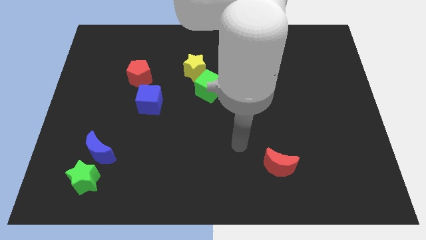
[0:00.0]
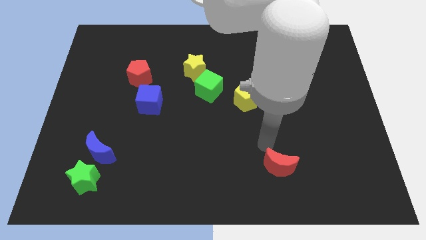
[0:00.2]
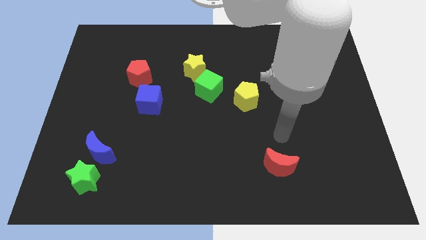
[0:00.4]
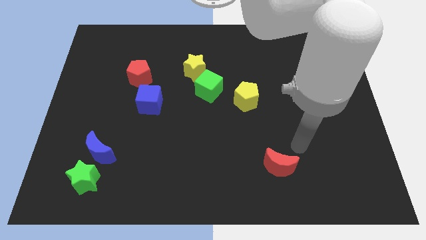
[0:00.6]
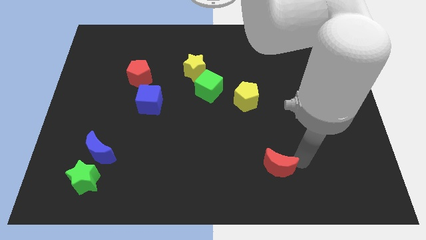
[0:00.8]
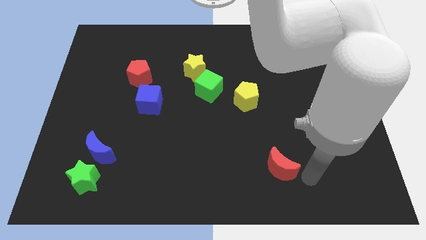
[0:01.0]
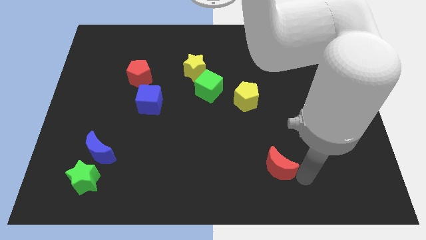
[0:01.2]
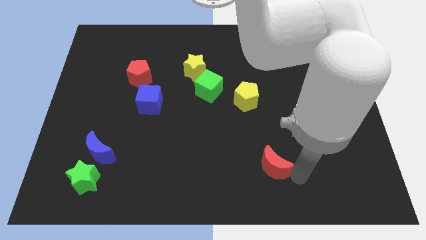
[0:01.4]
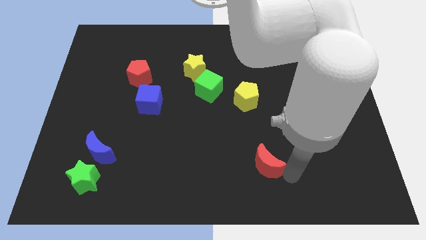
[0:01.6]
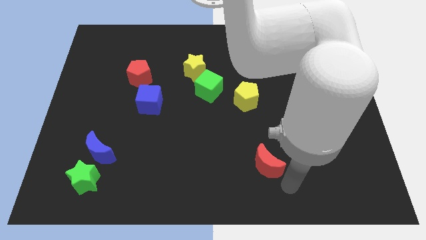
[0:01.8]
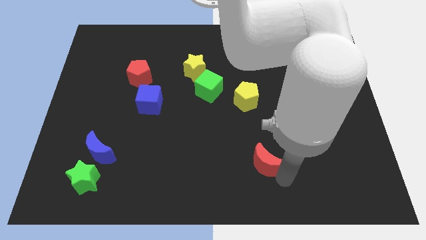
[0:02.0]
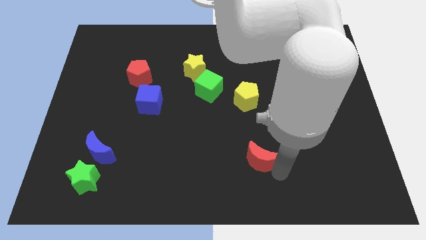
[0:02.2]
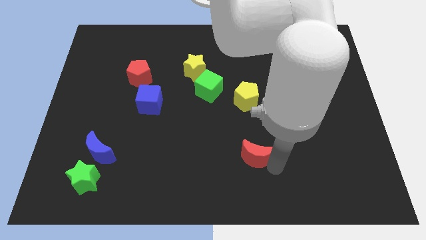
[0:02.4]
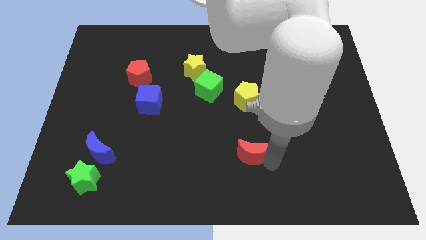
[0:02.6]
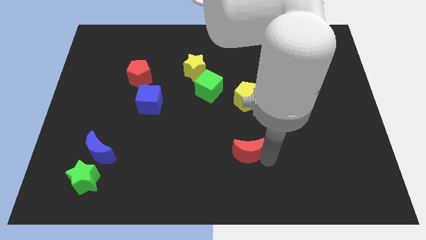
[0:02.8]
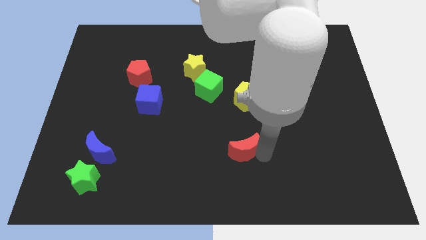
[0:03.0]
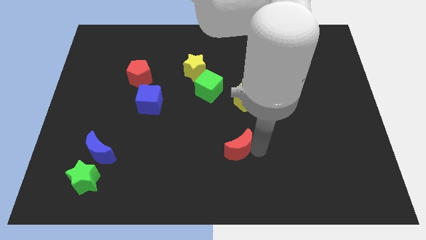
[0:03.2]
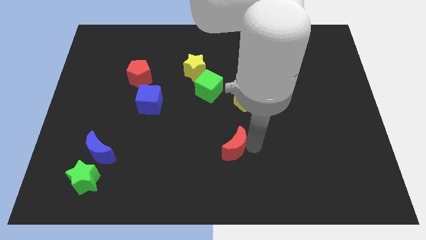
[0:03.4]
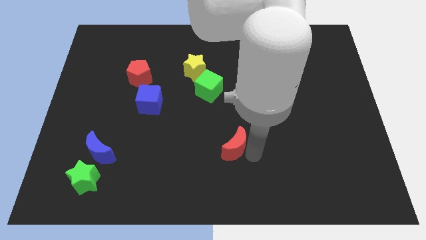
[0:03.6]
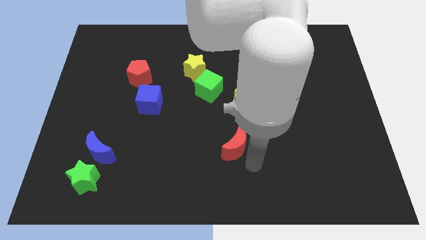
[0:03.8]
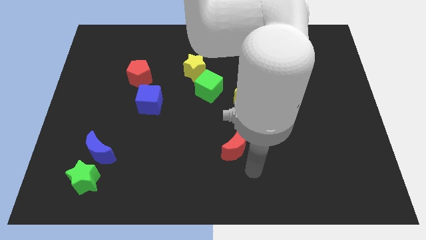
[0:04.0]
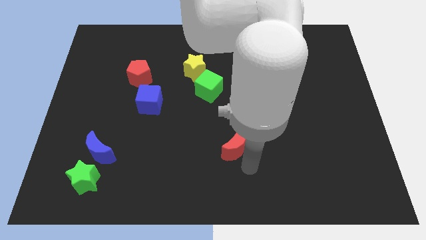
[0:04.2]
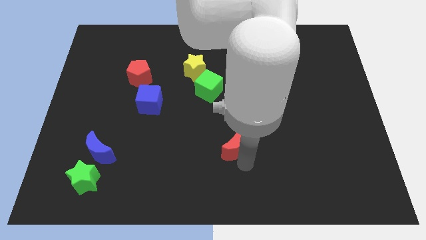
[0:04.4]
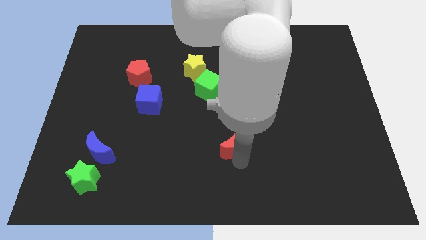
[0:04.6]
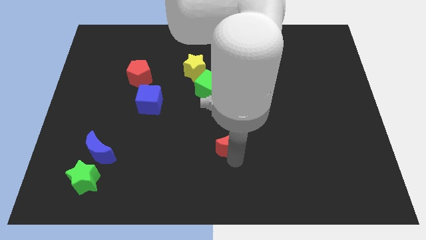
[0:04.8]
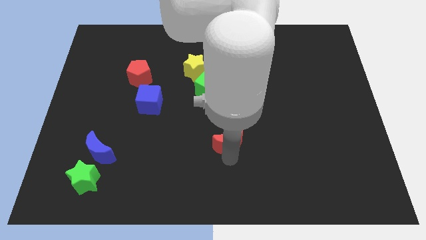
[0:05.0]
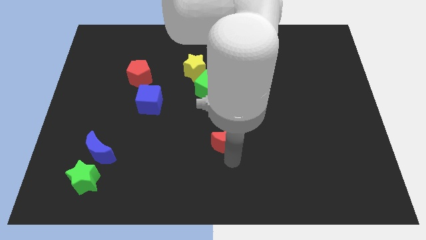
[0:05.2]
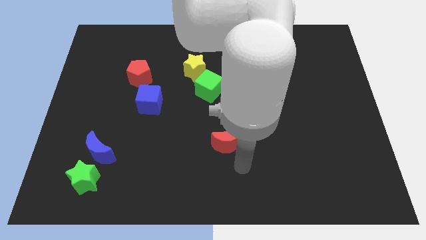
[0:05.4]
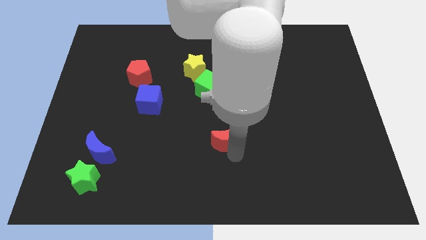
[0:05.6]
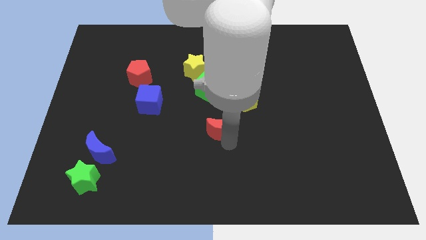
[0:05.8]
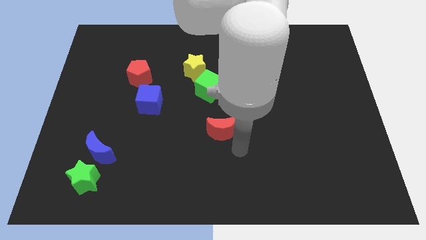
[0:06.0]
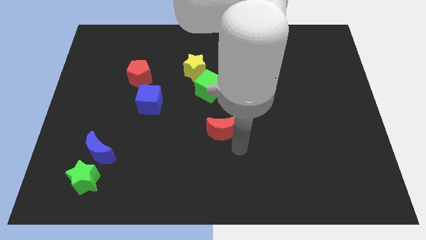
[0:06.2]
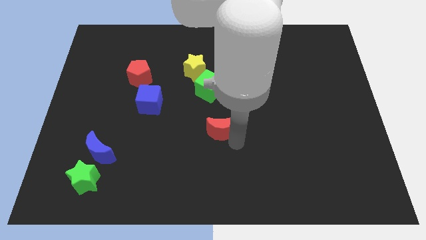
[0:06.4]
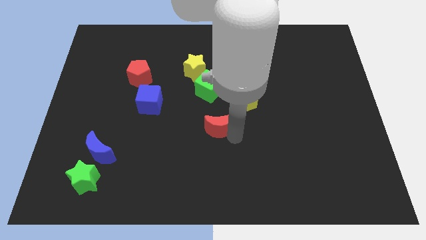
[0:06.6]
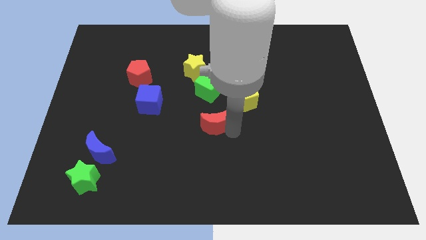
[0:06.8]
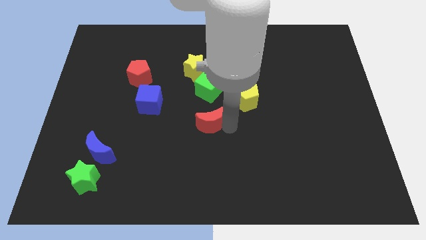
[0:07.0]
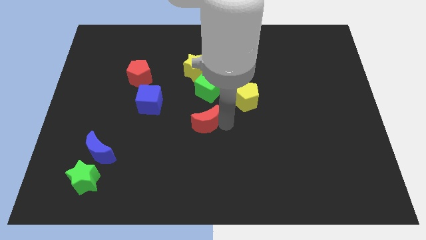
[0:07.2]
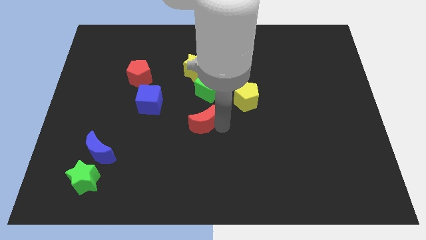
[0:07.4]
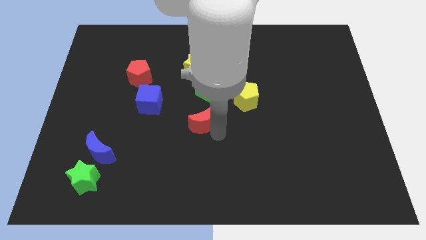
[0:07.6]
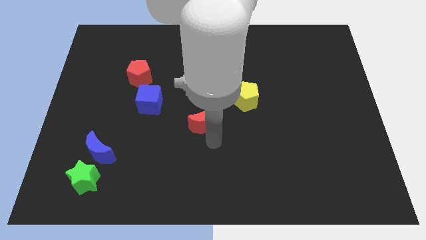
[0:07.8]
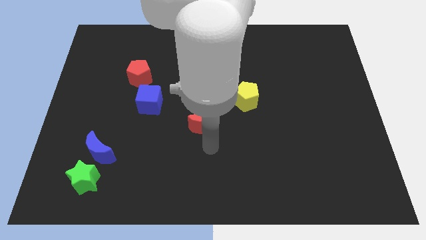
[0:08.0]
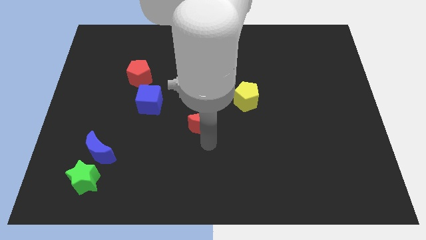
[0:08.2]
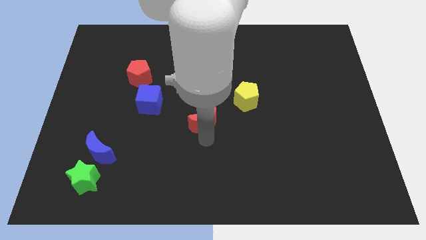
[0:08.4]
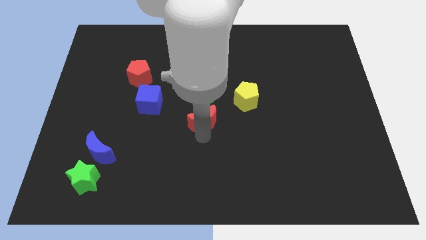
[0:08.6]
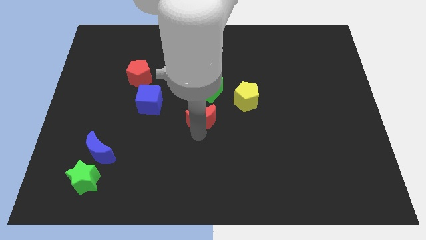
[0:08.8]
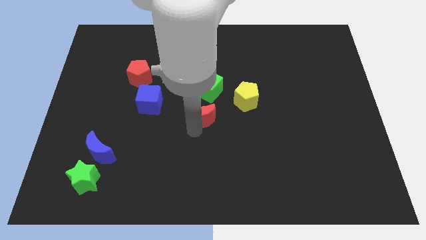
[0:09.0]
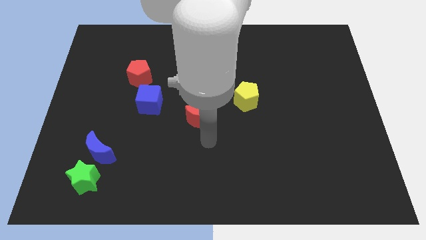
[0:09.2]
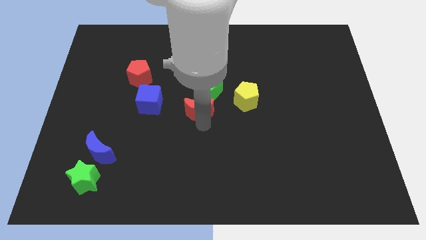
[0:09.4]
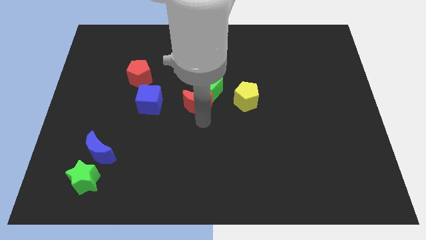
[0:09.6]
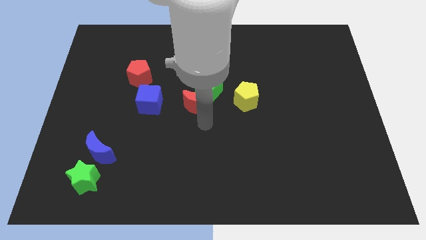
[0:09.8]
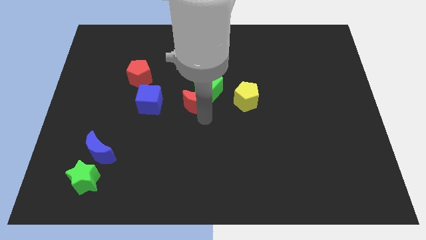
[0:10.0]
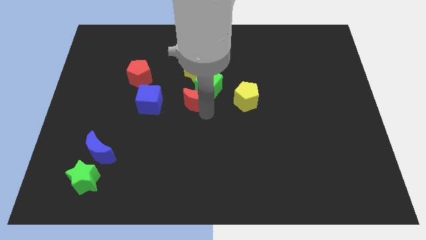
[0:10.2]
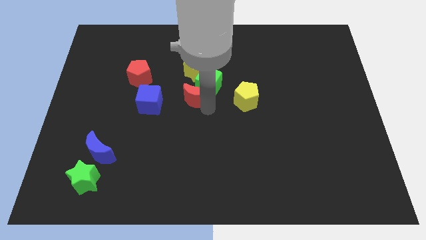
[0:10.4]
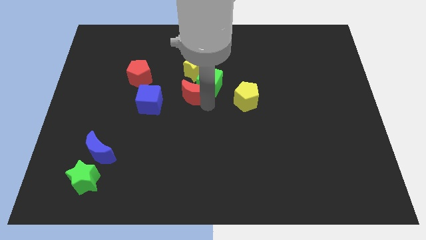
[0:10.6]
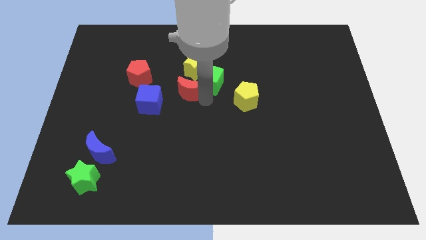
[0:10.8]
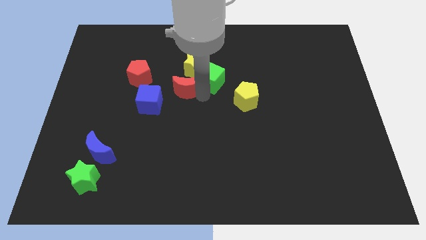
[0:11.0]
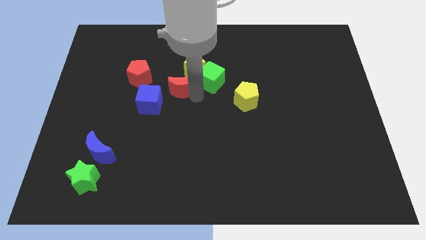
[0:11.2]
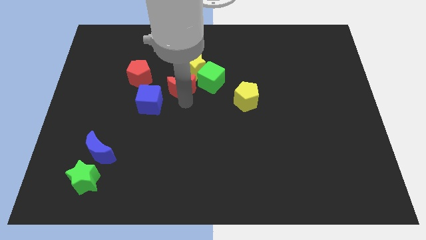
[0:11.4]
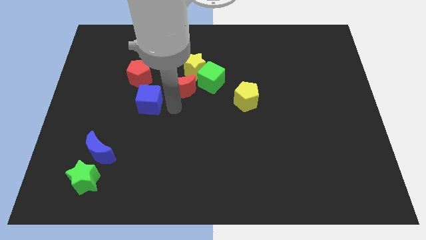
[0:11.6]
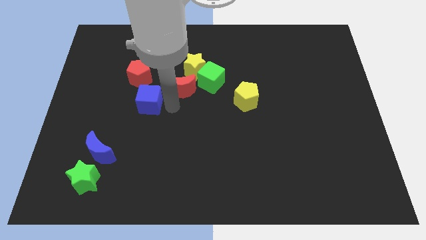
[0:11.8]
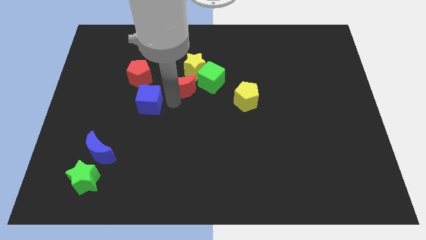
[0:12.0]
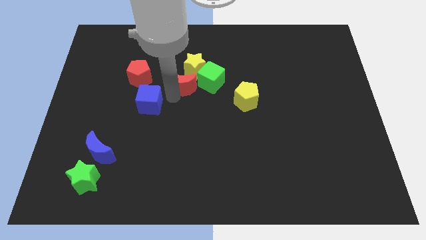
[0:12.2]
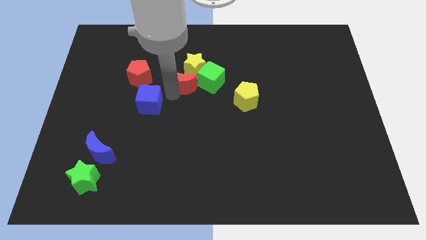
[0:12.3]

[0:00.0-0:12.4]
put the red moon towards the yellow star

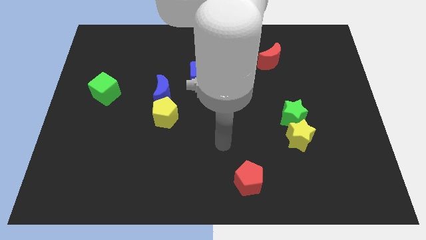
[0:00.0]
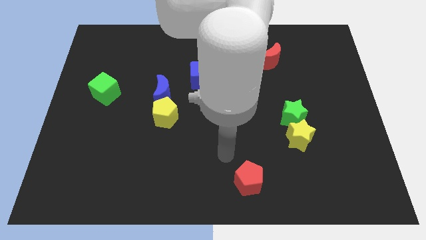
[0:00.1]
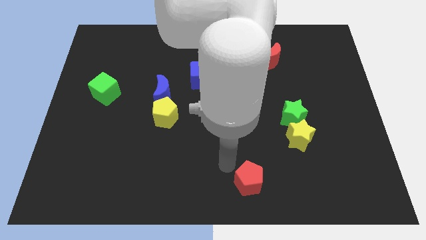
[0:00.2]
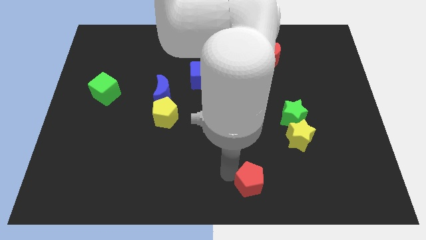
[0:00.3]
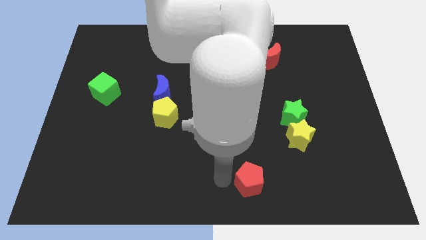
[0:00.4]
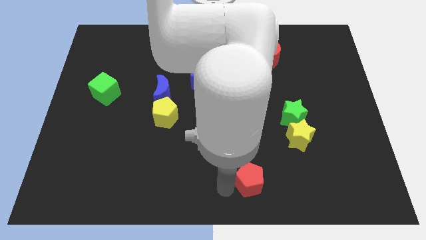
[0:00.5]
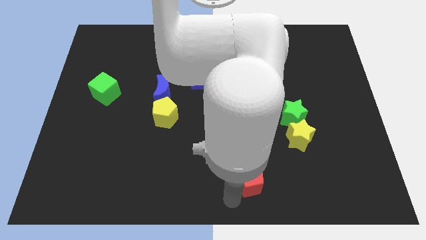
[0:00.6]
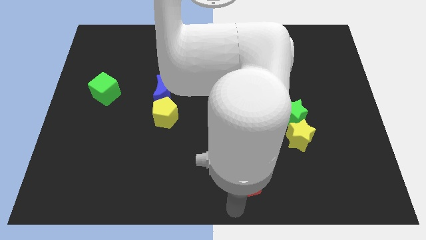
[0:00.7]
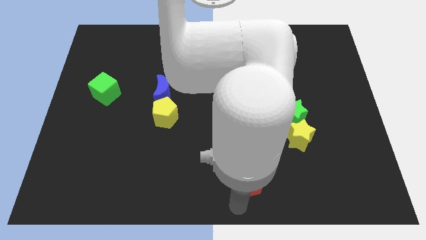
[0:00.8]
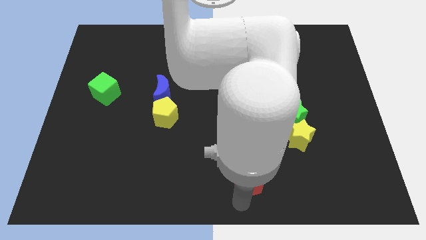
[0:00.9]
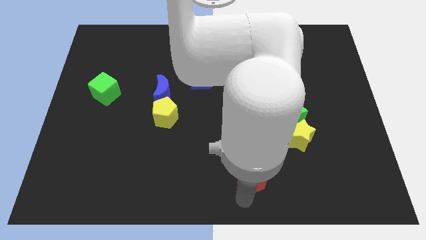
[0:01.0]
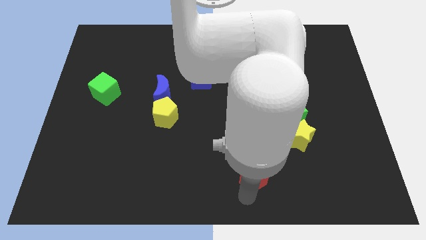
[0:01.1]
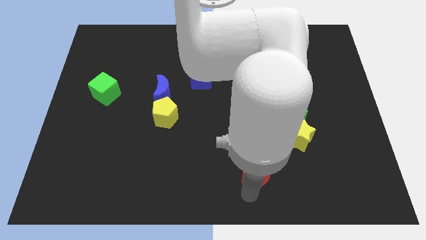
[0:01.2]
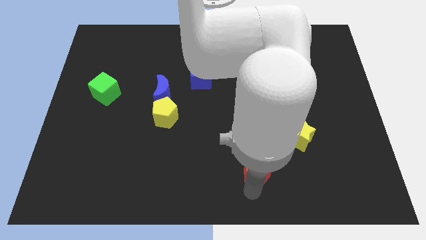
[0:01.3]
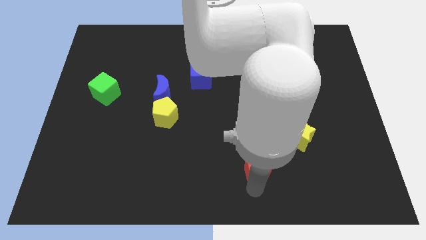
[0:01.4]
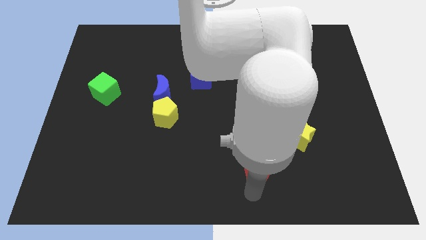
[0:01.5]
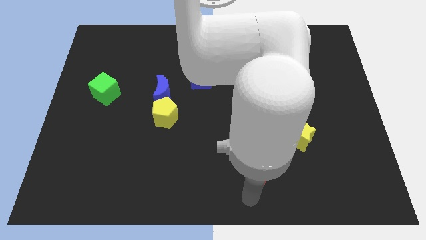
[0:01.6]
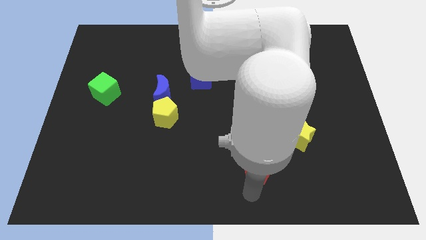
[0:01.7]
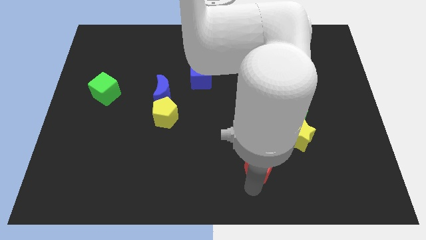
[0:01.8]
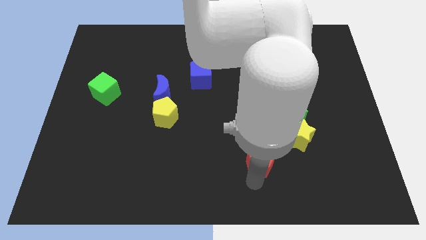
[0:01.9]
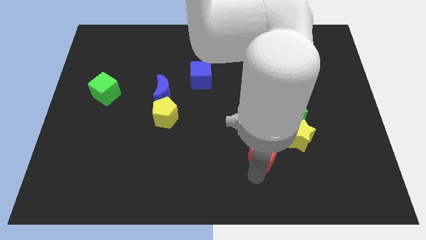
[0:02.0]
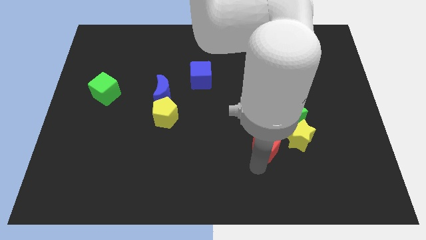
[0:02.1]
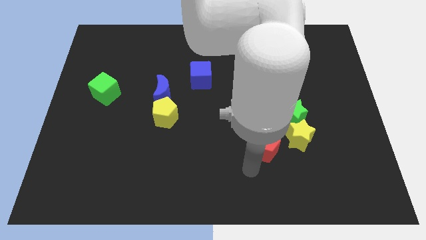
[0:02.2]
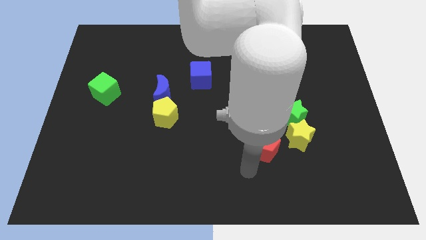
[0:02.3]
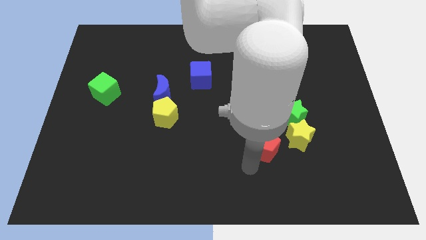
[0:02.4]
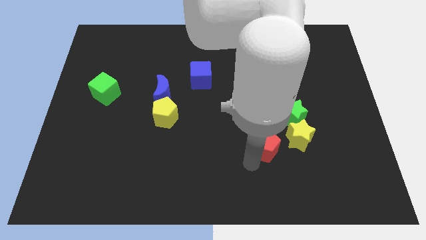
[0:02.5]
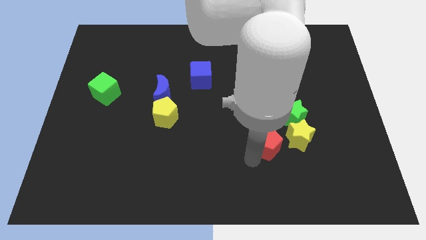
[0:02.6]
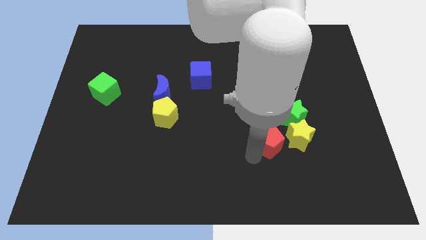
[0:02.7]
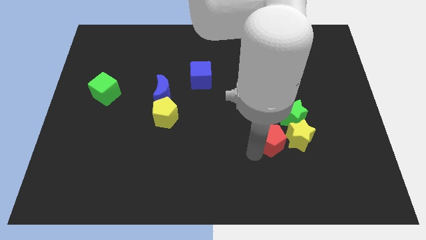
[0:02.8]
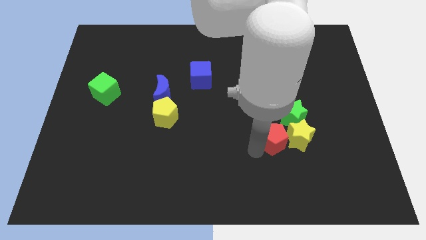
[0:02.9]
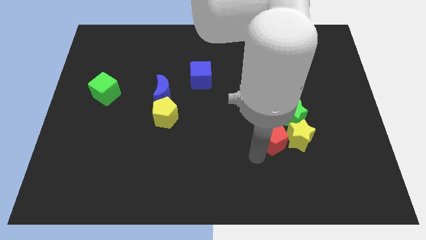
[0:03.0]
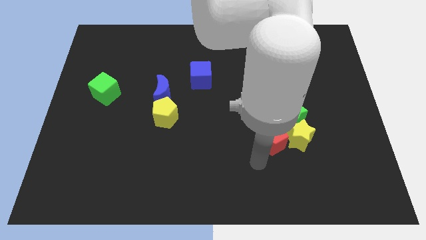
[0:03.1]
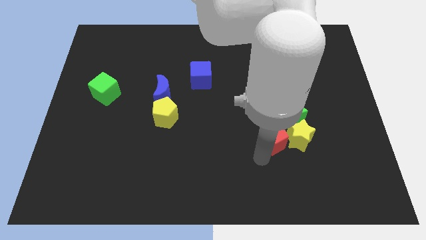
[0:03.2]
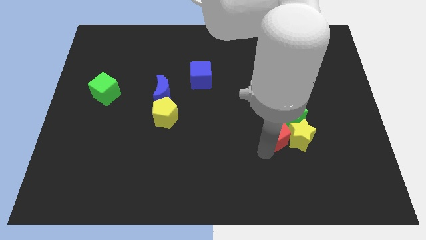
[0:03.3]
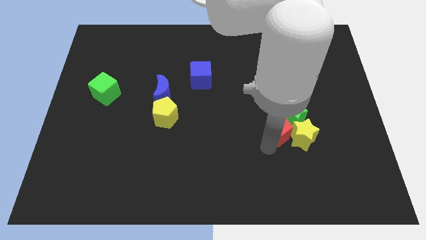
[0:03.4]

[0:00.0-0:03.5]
move the red pentagon towards the green star
